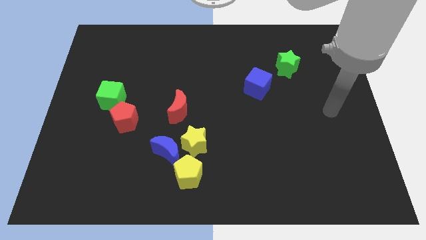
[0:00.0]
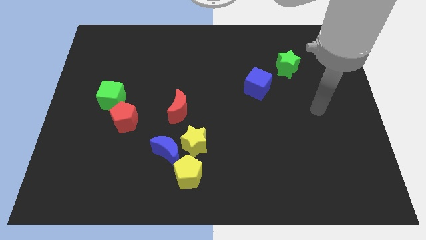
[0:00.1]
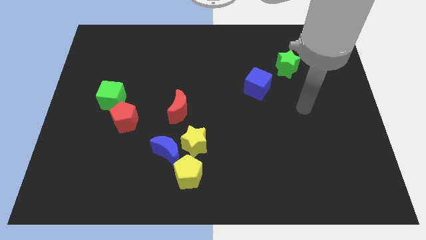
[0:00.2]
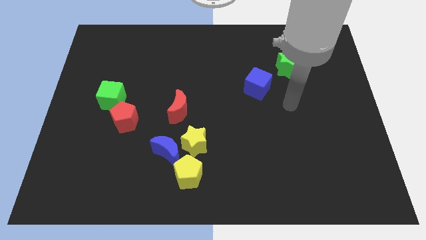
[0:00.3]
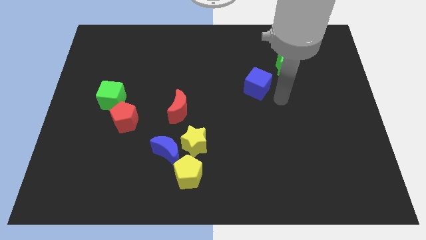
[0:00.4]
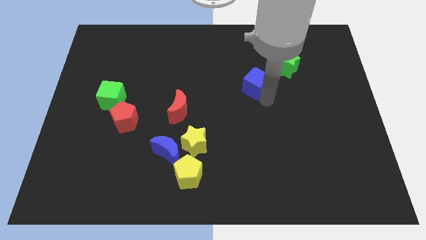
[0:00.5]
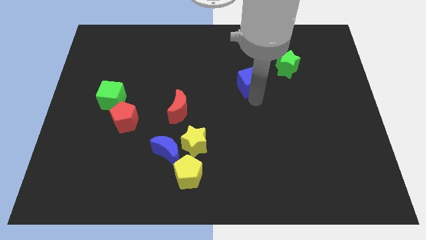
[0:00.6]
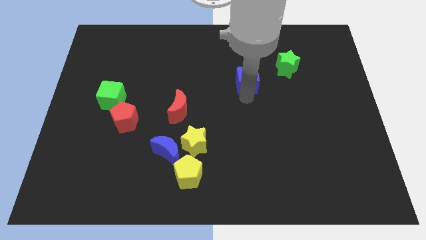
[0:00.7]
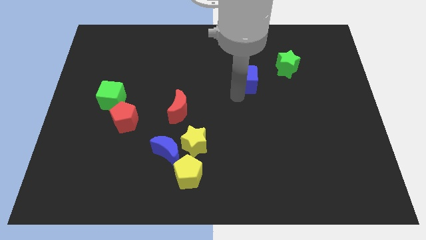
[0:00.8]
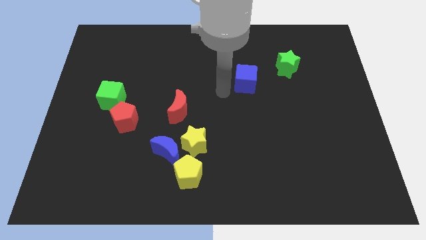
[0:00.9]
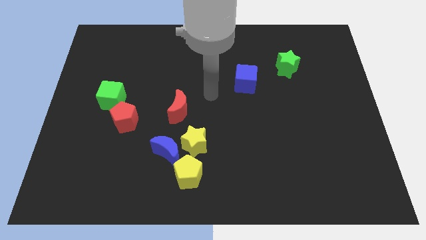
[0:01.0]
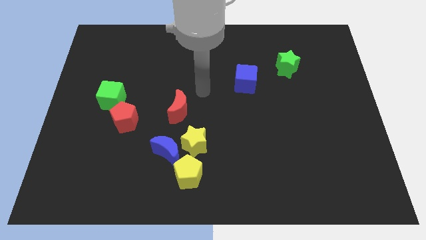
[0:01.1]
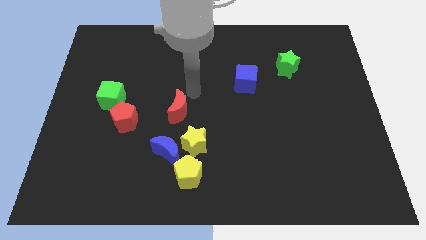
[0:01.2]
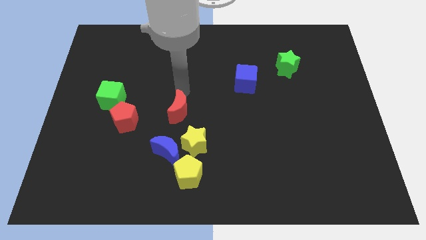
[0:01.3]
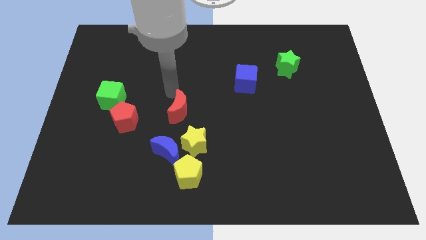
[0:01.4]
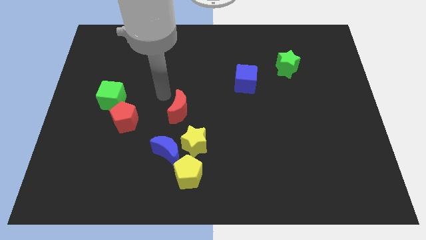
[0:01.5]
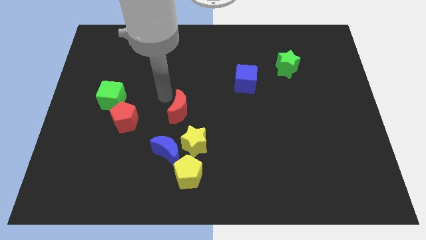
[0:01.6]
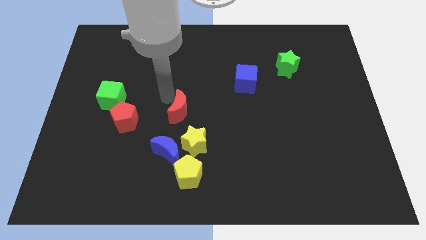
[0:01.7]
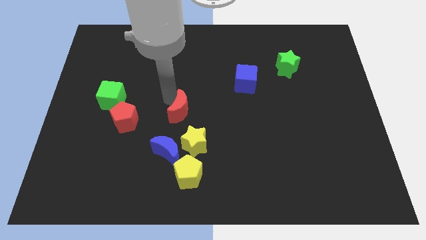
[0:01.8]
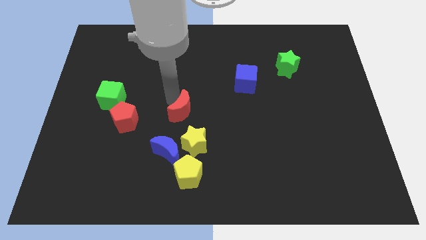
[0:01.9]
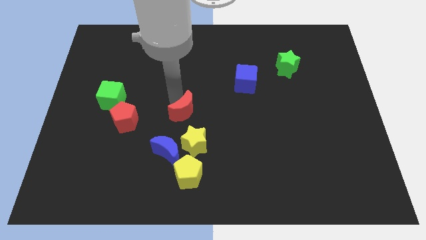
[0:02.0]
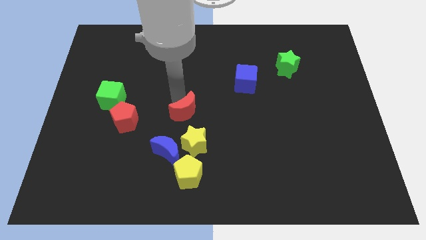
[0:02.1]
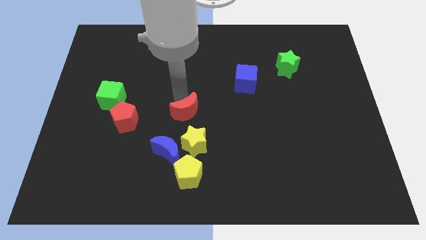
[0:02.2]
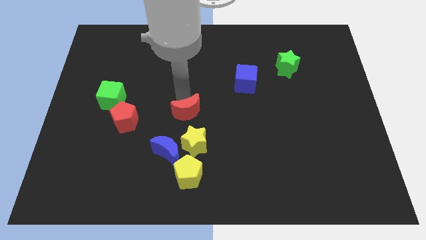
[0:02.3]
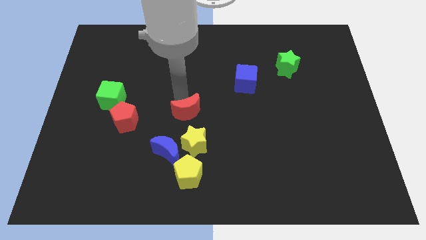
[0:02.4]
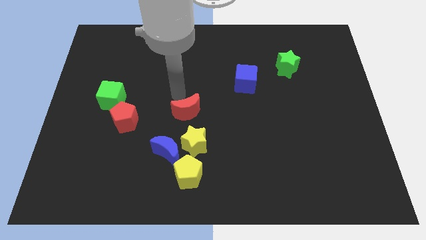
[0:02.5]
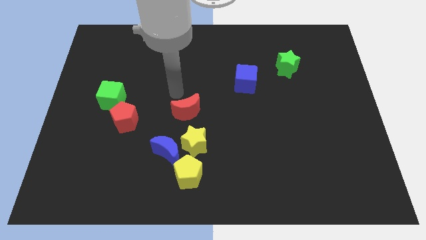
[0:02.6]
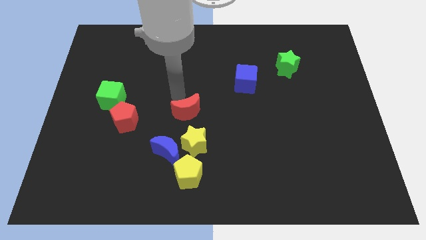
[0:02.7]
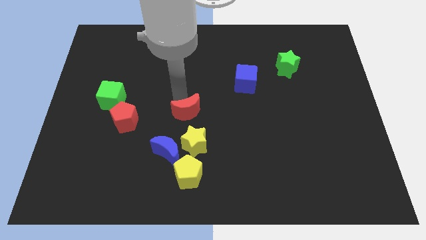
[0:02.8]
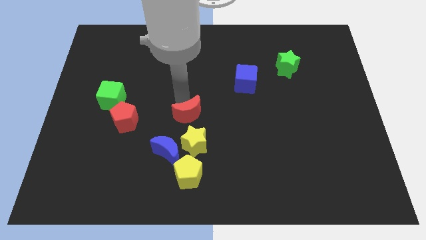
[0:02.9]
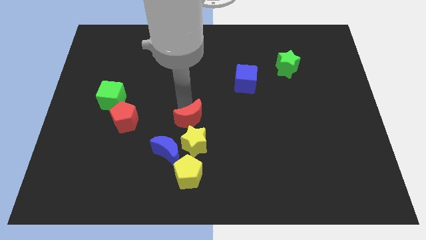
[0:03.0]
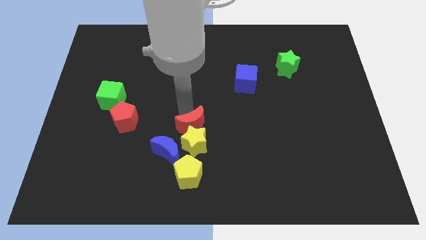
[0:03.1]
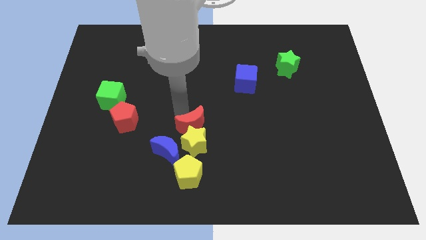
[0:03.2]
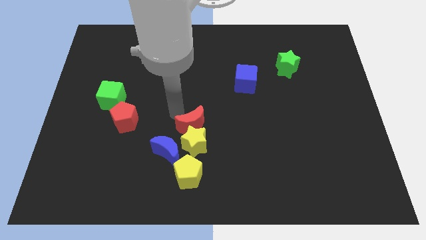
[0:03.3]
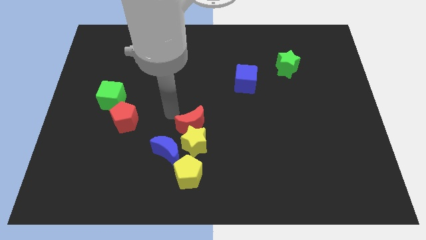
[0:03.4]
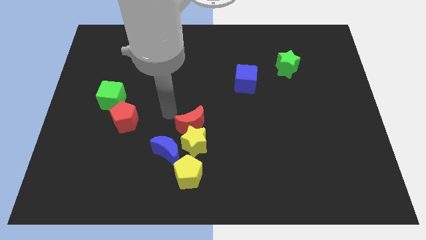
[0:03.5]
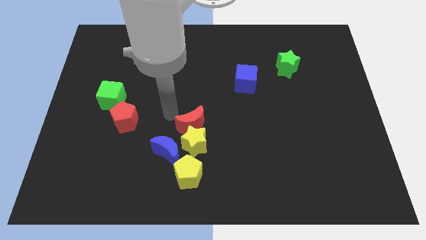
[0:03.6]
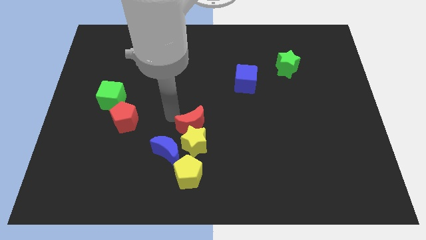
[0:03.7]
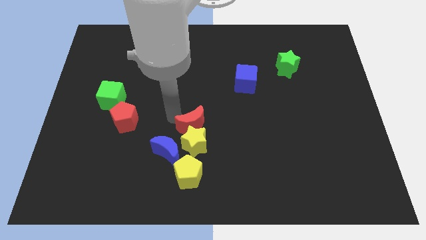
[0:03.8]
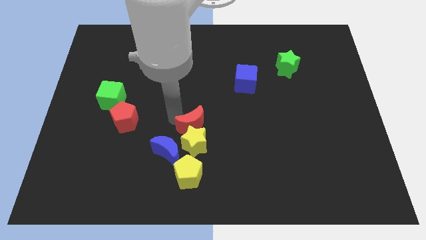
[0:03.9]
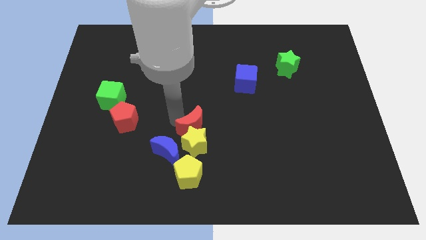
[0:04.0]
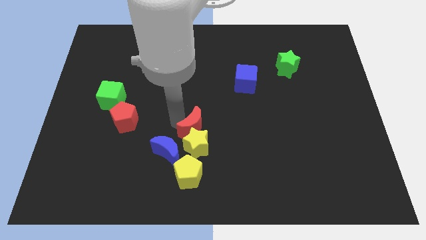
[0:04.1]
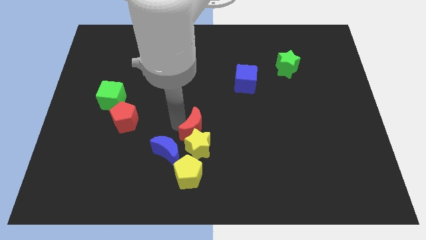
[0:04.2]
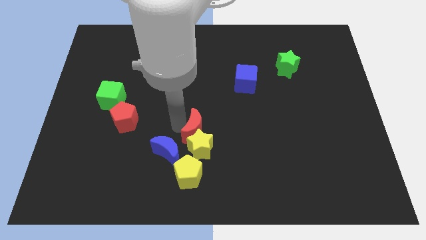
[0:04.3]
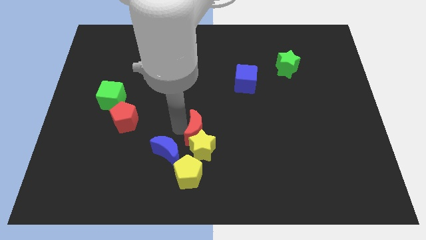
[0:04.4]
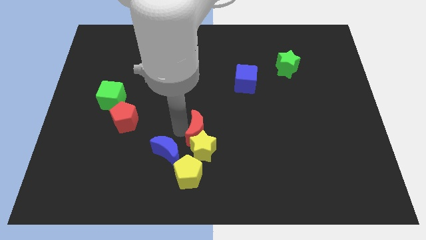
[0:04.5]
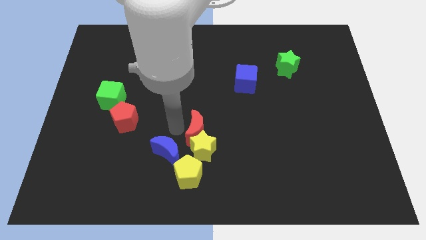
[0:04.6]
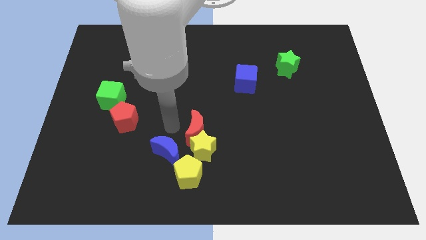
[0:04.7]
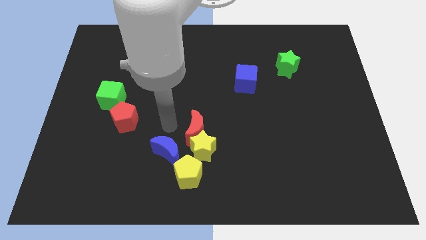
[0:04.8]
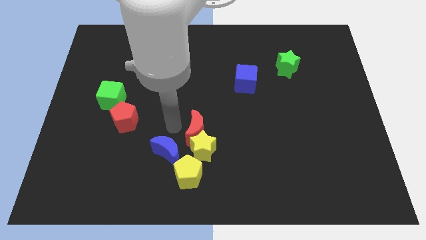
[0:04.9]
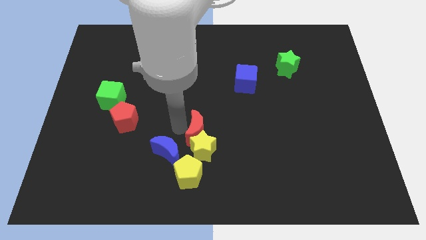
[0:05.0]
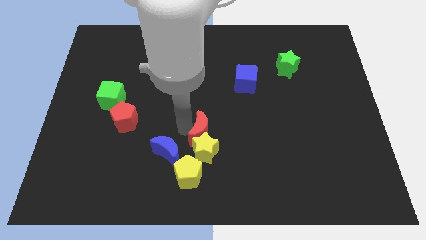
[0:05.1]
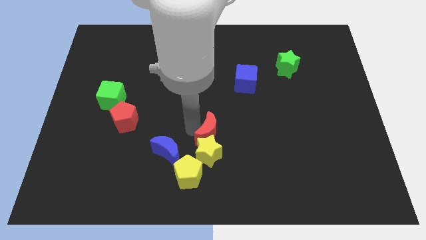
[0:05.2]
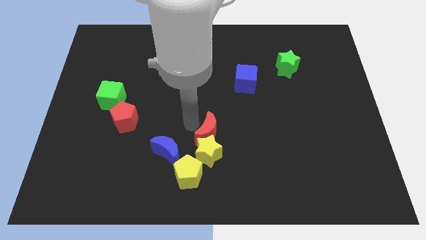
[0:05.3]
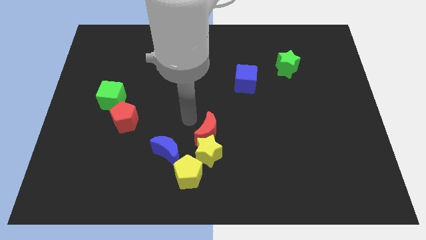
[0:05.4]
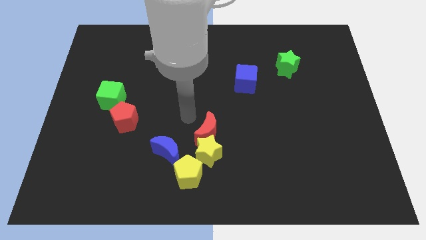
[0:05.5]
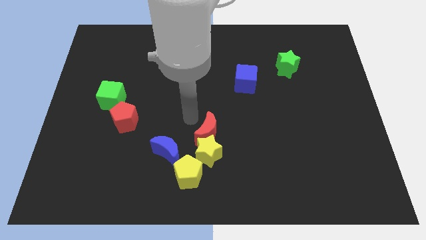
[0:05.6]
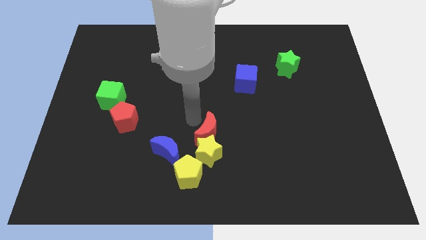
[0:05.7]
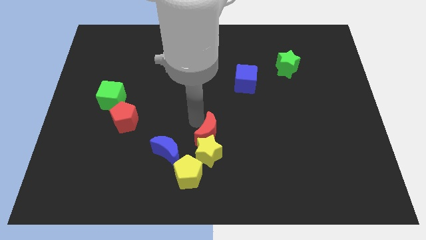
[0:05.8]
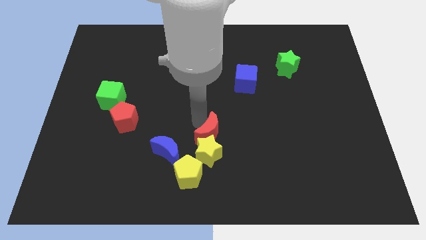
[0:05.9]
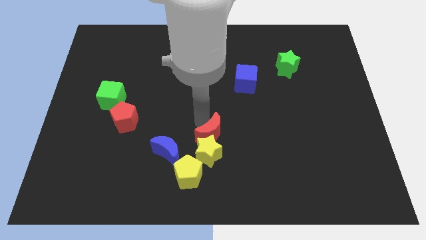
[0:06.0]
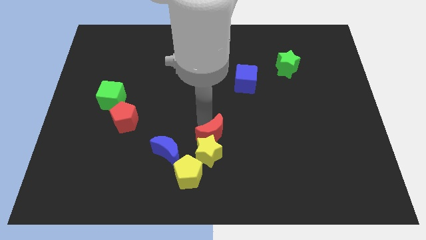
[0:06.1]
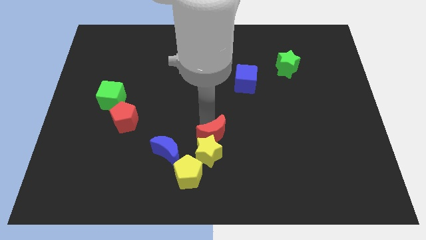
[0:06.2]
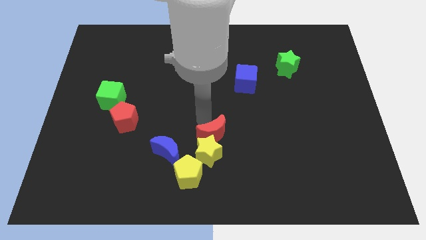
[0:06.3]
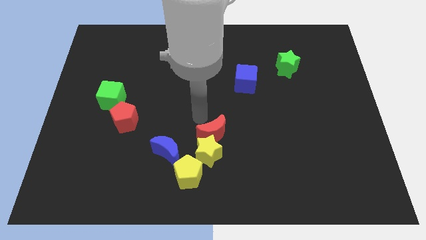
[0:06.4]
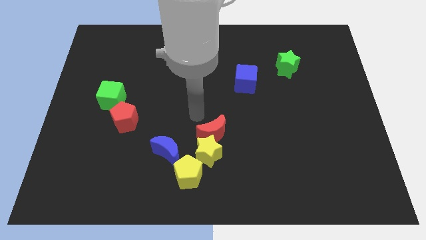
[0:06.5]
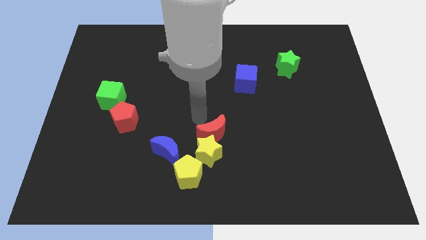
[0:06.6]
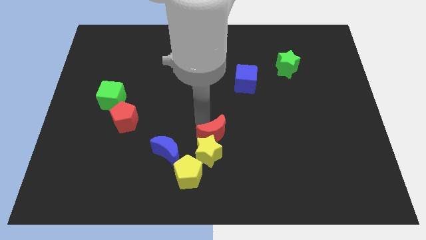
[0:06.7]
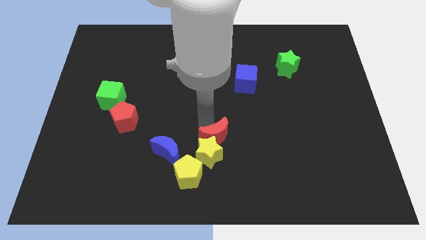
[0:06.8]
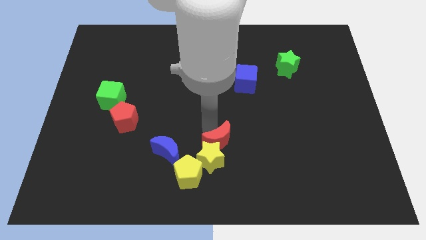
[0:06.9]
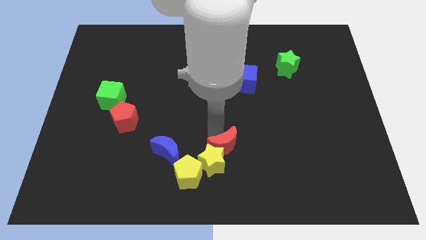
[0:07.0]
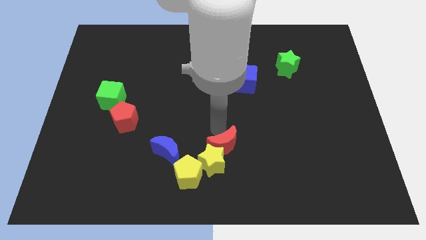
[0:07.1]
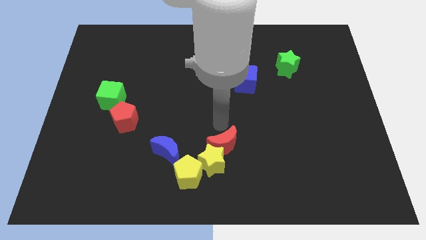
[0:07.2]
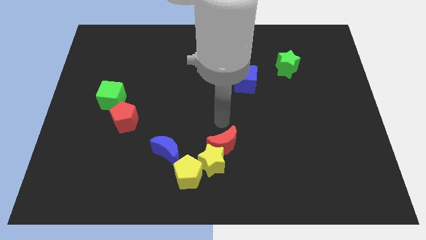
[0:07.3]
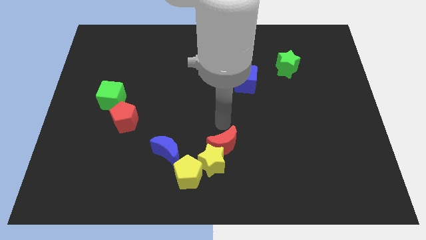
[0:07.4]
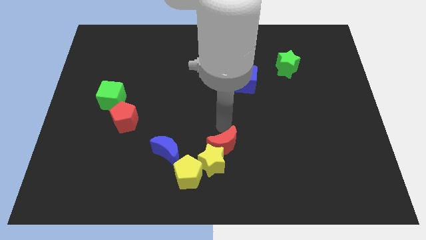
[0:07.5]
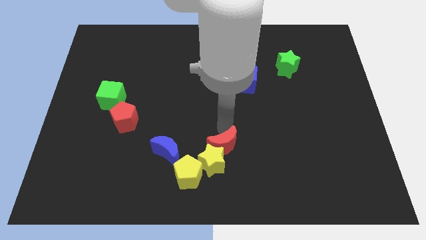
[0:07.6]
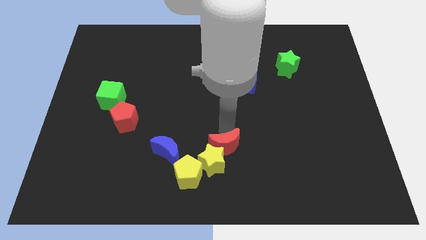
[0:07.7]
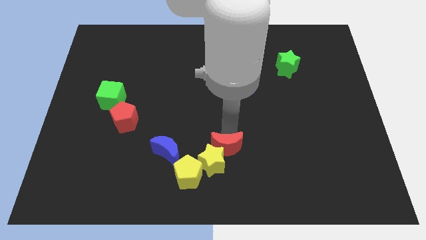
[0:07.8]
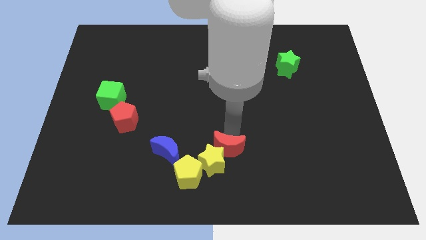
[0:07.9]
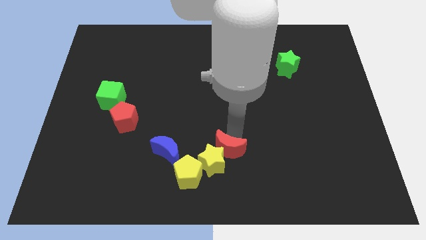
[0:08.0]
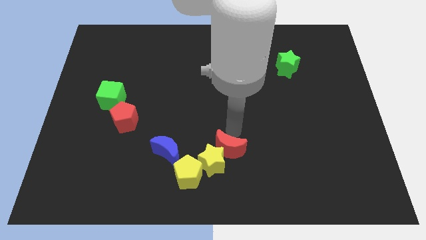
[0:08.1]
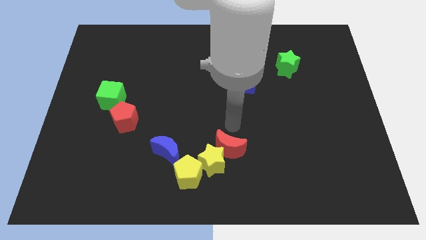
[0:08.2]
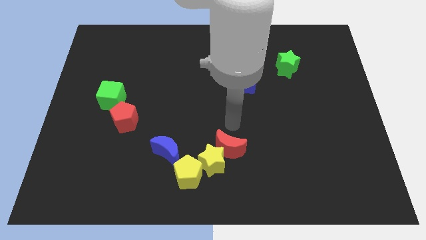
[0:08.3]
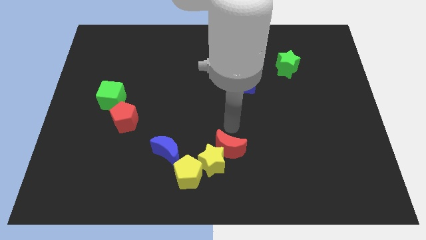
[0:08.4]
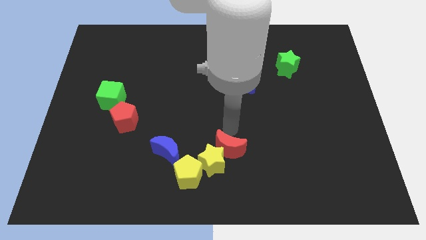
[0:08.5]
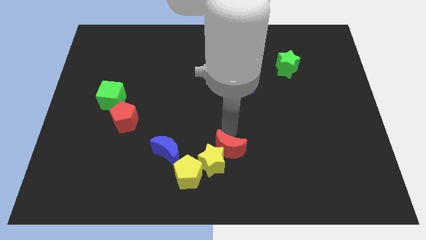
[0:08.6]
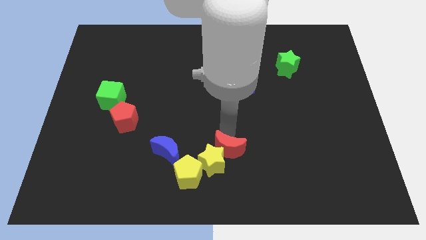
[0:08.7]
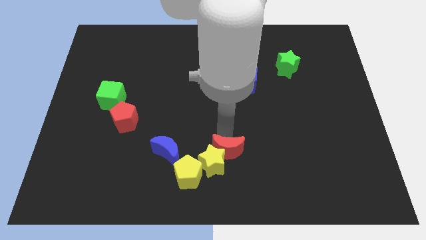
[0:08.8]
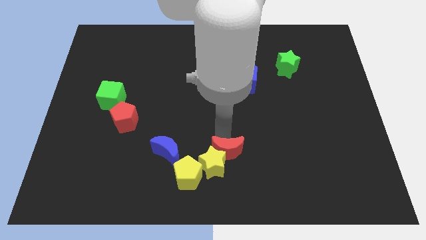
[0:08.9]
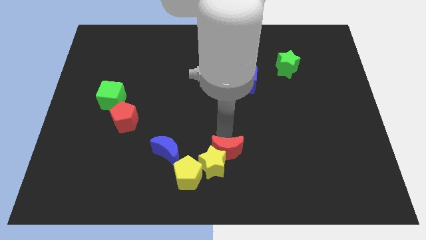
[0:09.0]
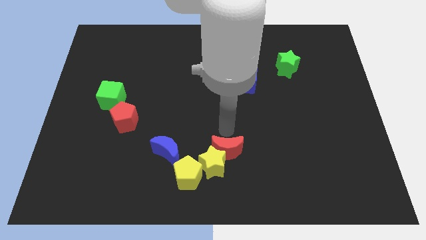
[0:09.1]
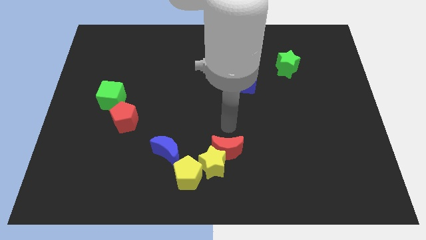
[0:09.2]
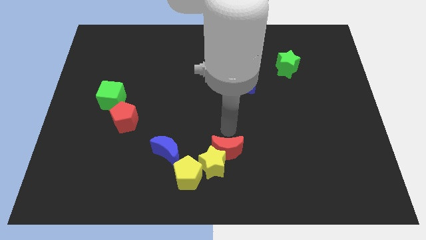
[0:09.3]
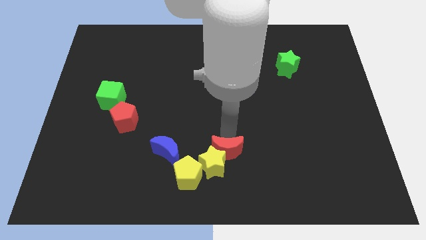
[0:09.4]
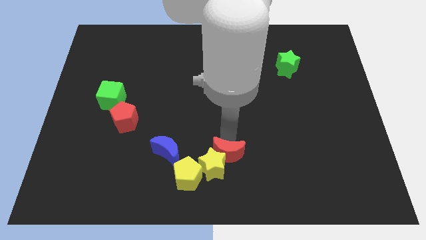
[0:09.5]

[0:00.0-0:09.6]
move the red moon to the bottom
